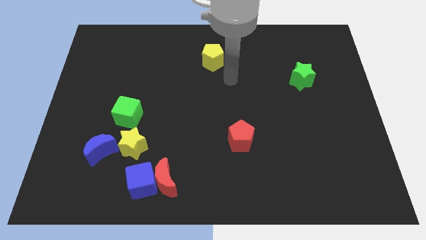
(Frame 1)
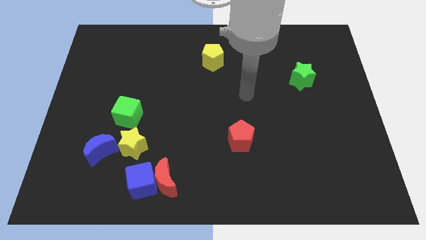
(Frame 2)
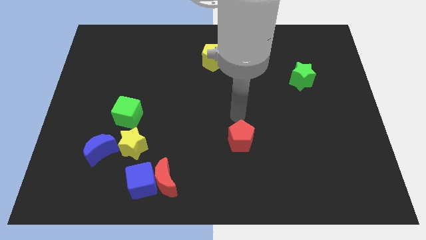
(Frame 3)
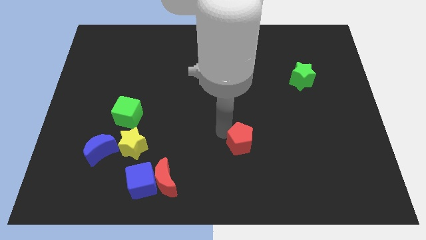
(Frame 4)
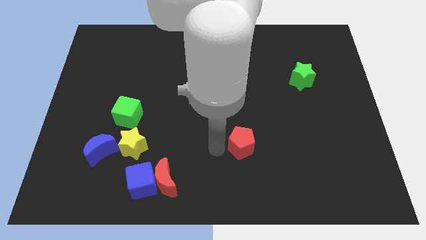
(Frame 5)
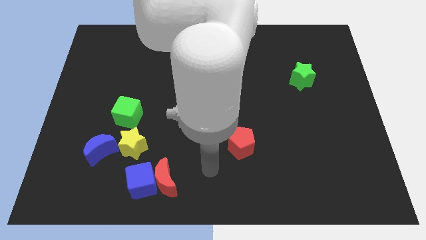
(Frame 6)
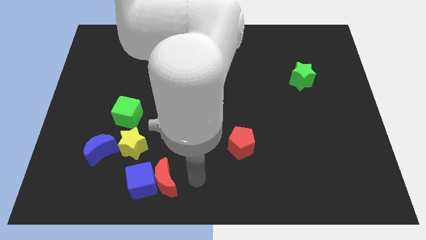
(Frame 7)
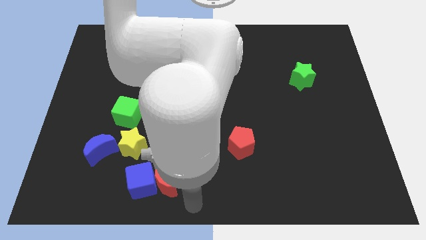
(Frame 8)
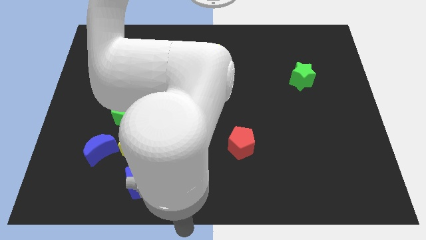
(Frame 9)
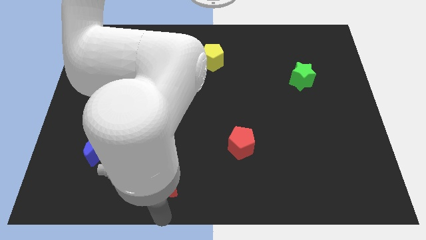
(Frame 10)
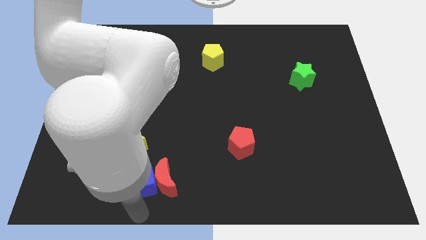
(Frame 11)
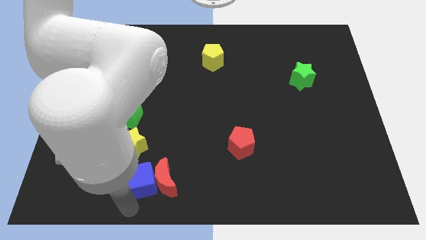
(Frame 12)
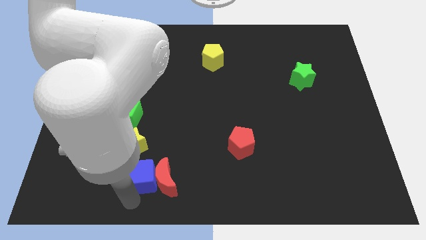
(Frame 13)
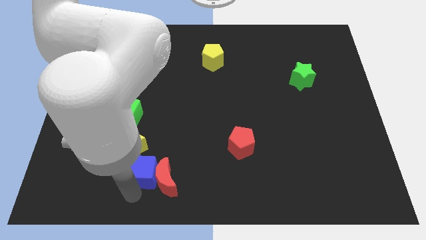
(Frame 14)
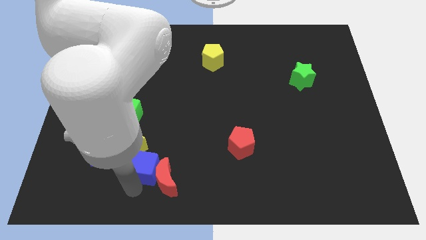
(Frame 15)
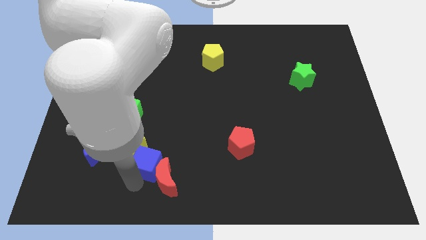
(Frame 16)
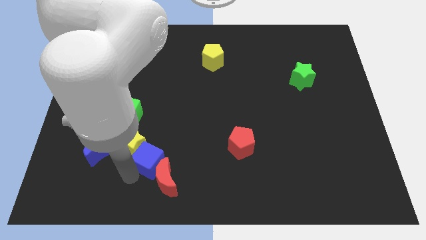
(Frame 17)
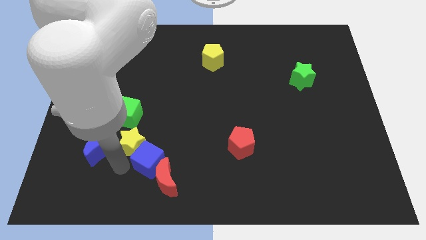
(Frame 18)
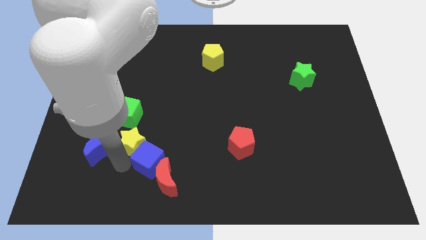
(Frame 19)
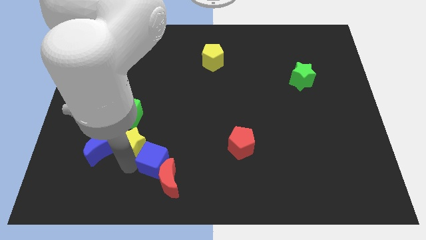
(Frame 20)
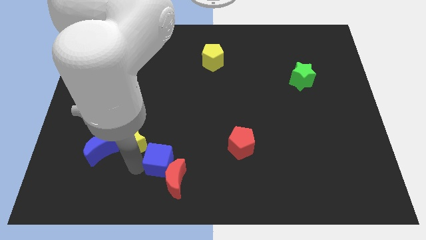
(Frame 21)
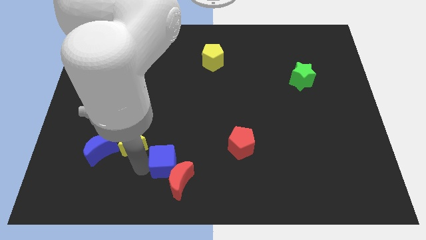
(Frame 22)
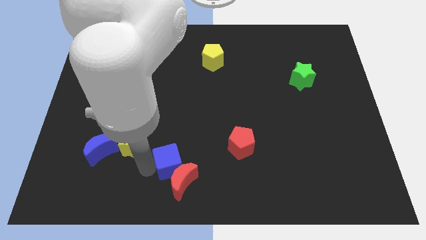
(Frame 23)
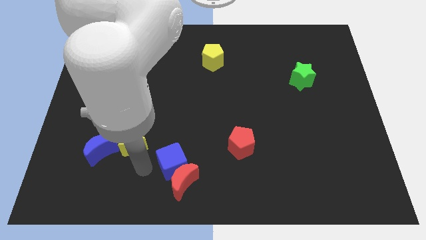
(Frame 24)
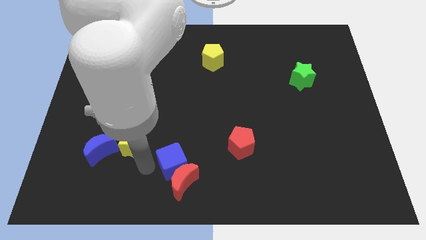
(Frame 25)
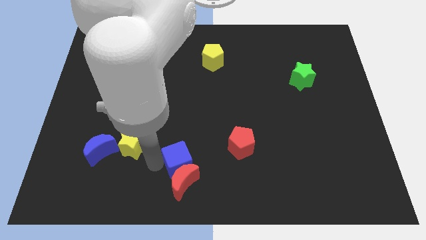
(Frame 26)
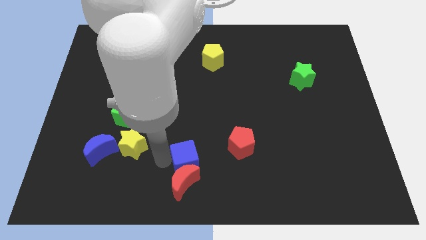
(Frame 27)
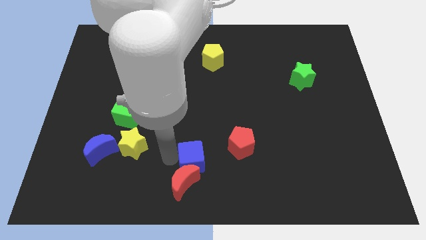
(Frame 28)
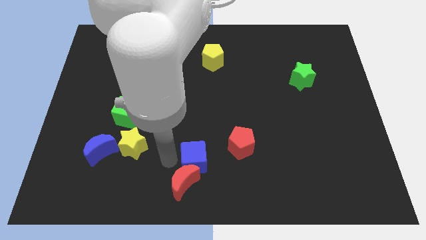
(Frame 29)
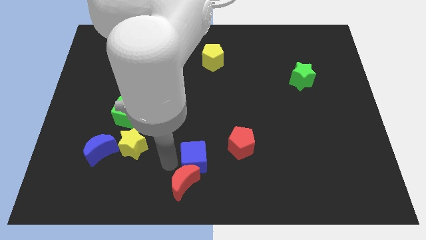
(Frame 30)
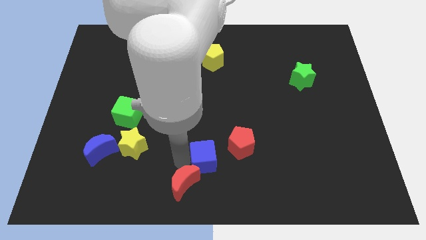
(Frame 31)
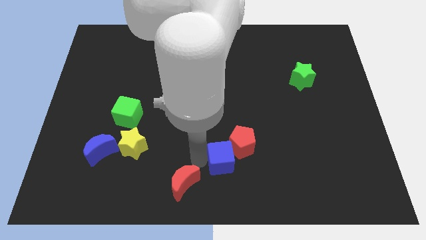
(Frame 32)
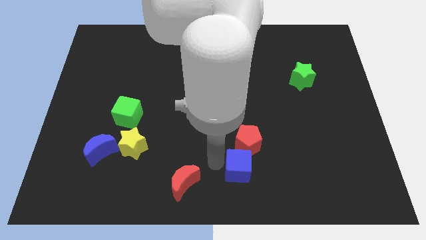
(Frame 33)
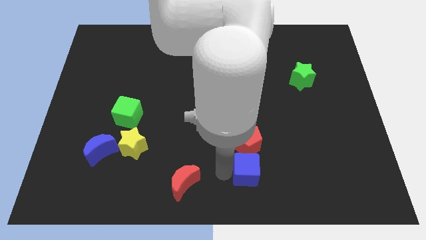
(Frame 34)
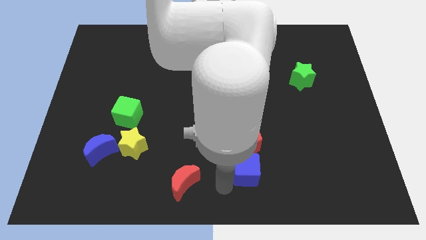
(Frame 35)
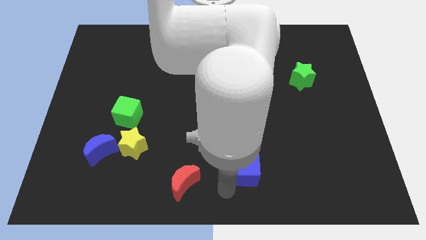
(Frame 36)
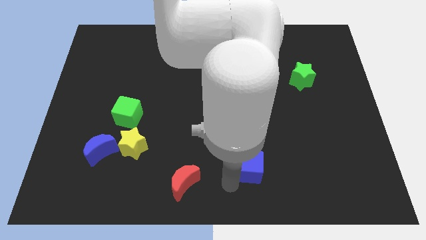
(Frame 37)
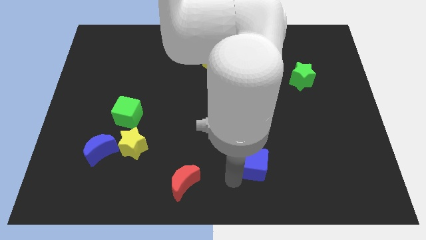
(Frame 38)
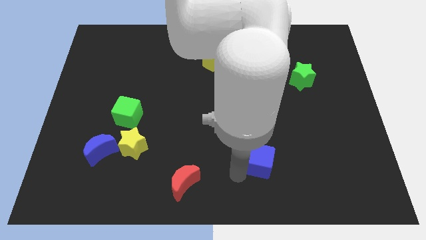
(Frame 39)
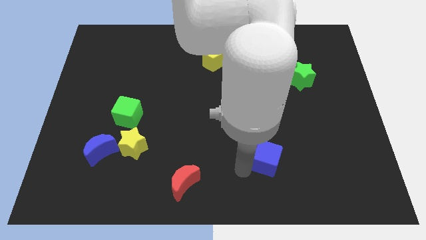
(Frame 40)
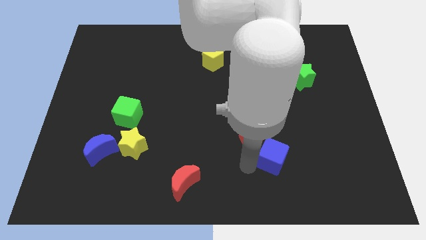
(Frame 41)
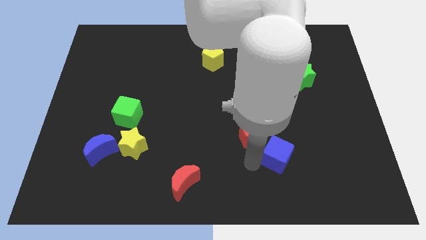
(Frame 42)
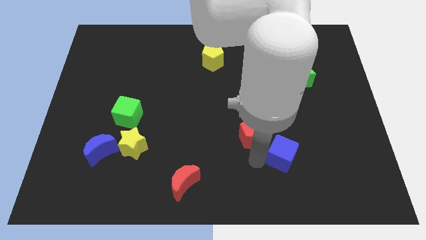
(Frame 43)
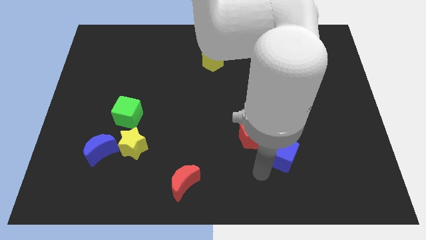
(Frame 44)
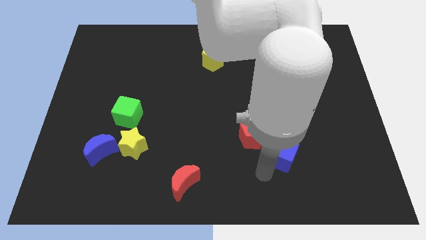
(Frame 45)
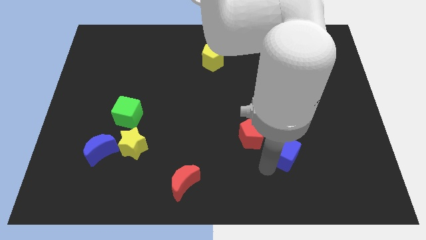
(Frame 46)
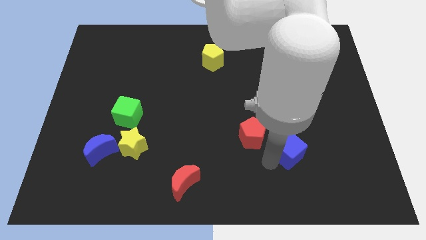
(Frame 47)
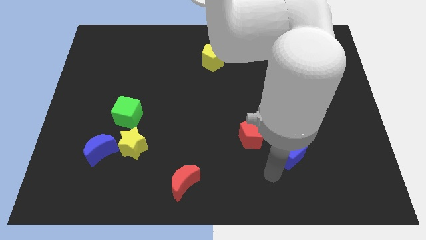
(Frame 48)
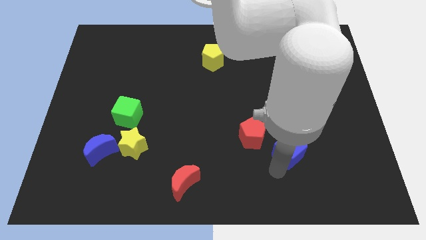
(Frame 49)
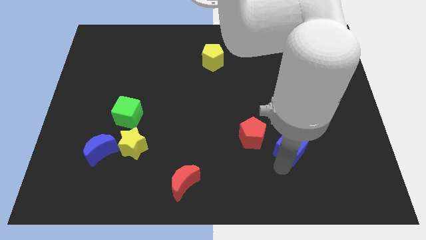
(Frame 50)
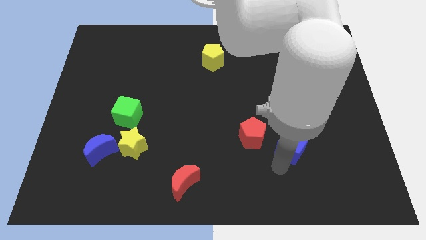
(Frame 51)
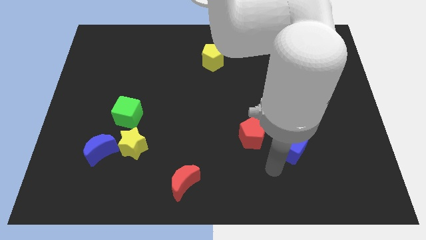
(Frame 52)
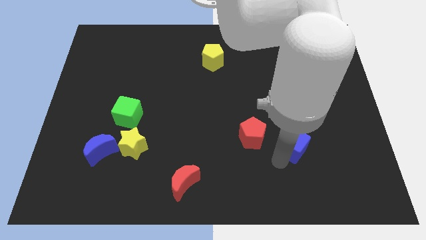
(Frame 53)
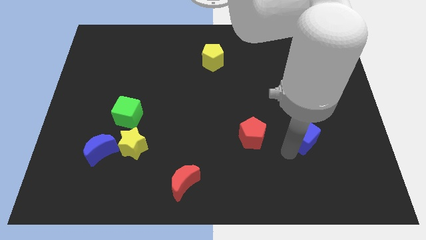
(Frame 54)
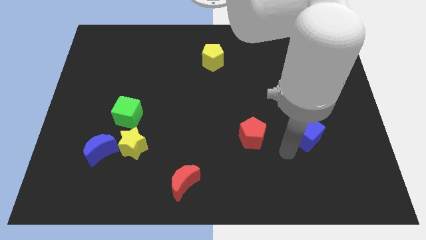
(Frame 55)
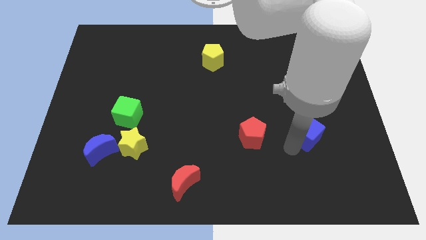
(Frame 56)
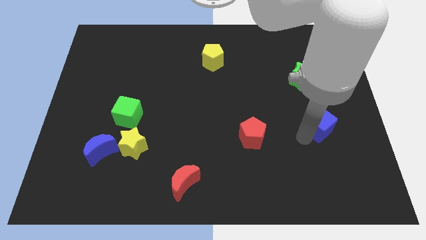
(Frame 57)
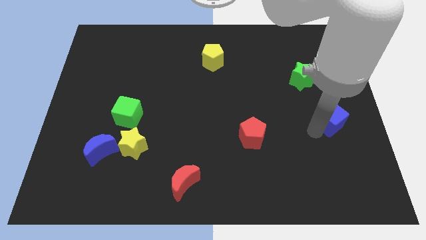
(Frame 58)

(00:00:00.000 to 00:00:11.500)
move the blue cube to the center right
